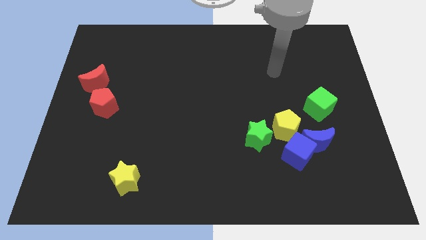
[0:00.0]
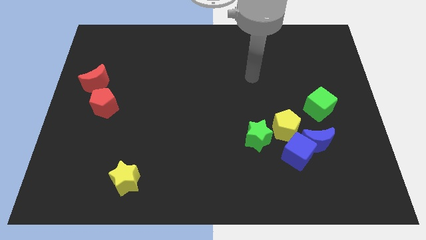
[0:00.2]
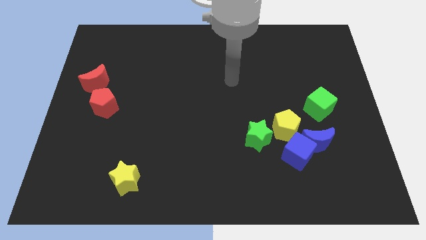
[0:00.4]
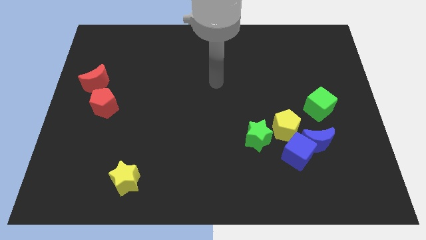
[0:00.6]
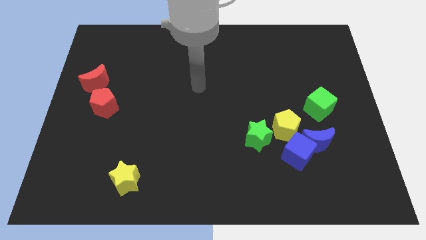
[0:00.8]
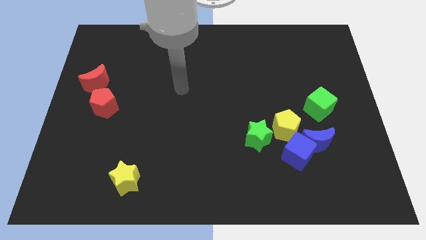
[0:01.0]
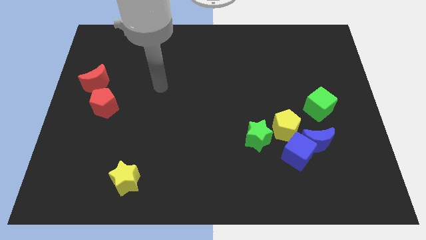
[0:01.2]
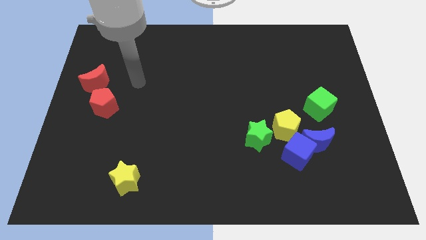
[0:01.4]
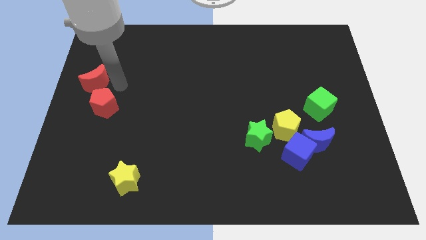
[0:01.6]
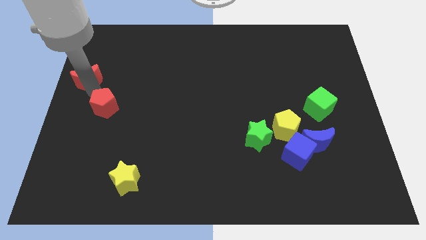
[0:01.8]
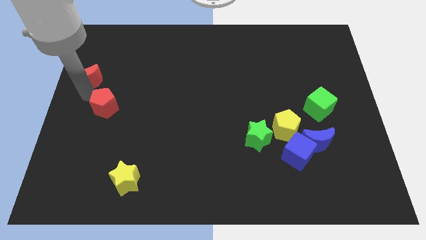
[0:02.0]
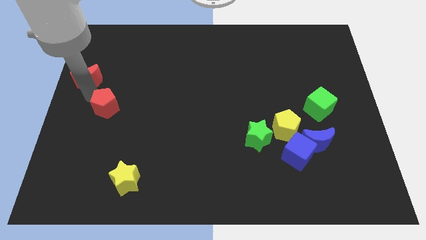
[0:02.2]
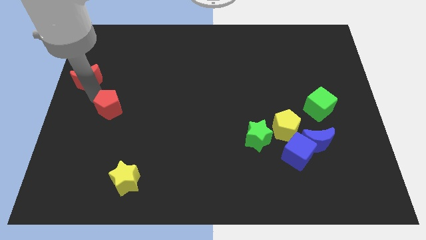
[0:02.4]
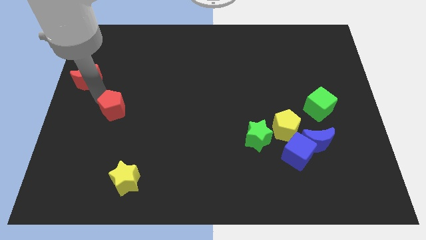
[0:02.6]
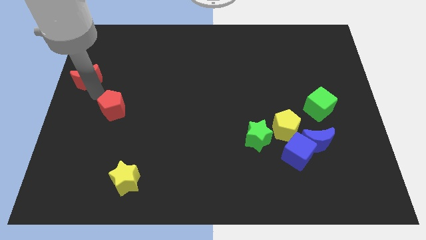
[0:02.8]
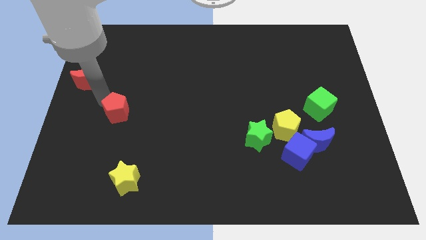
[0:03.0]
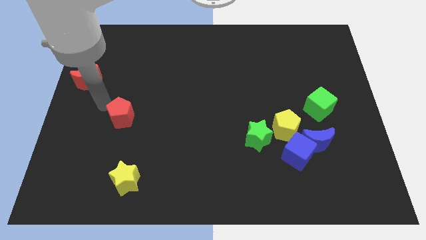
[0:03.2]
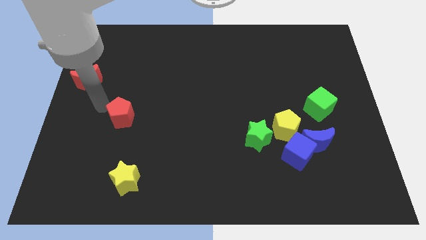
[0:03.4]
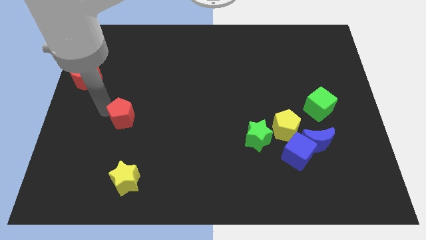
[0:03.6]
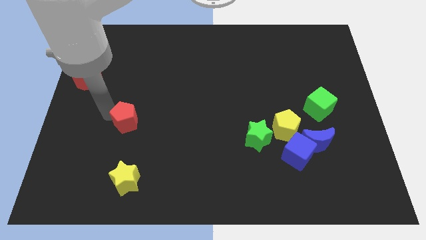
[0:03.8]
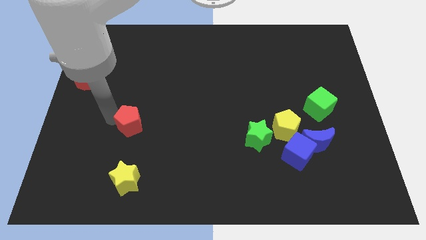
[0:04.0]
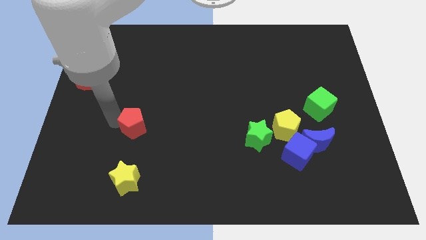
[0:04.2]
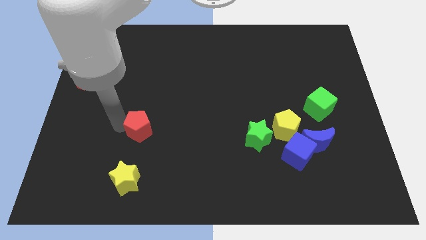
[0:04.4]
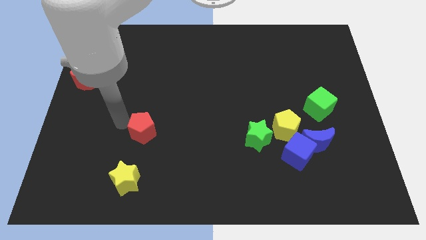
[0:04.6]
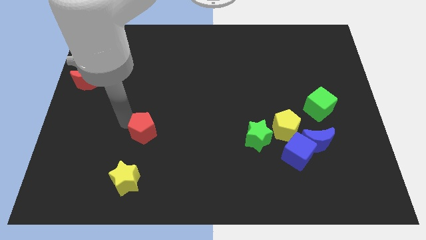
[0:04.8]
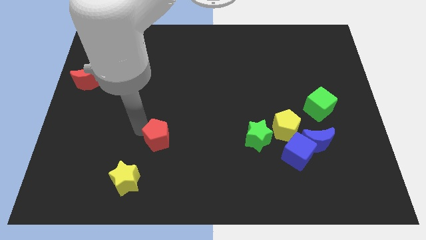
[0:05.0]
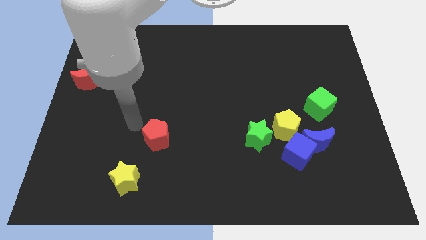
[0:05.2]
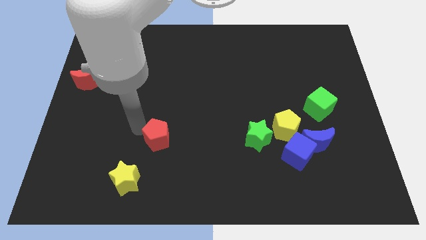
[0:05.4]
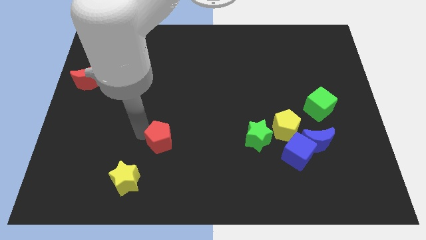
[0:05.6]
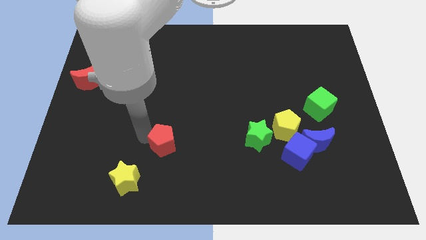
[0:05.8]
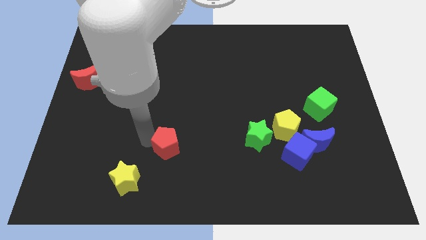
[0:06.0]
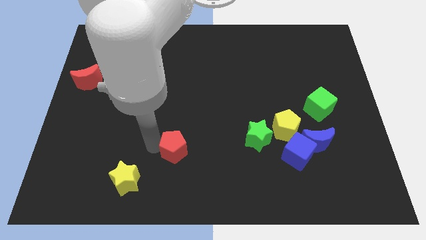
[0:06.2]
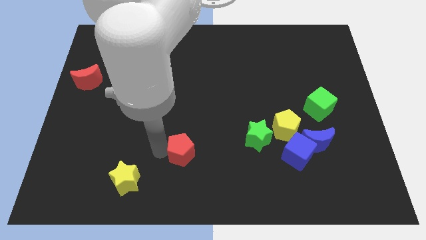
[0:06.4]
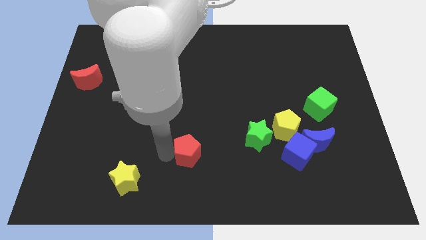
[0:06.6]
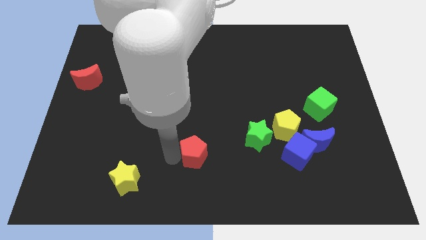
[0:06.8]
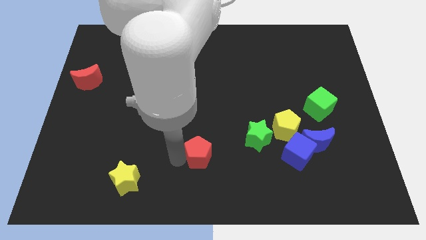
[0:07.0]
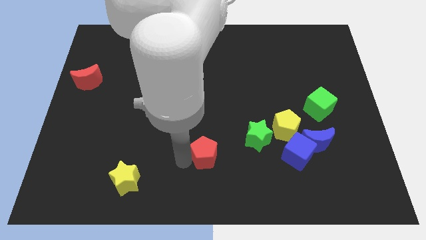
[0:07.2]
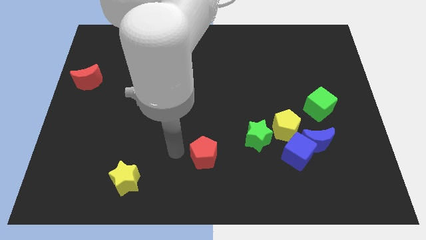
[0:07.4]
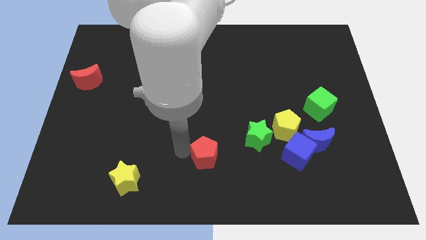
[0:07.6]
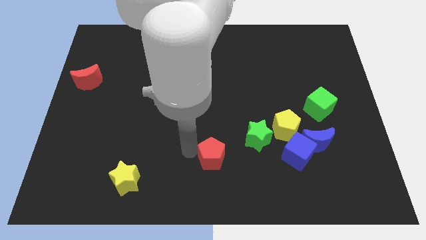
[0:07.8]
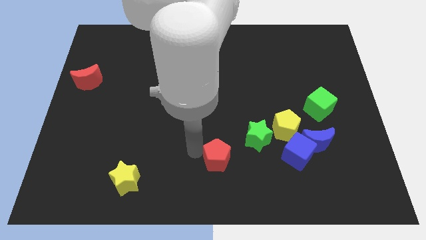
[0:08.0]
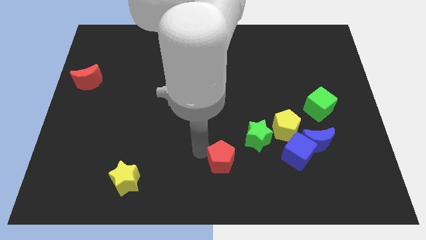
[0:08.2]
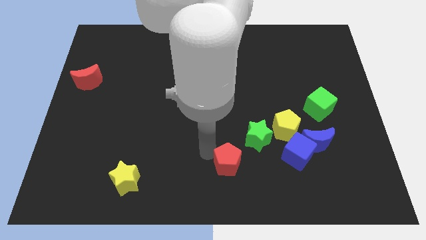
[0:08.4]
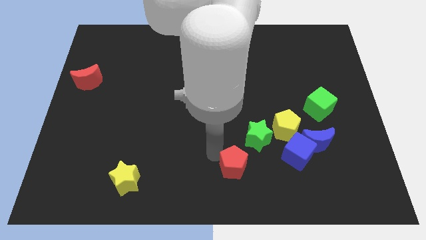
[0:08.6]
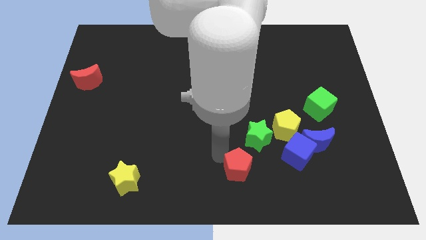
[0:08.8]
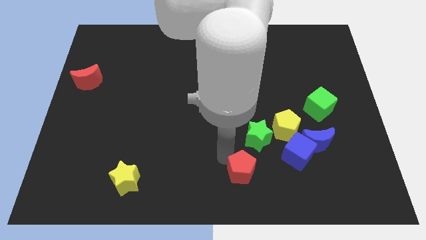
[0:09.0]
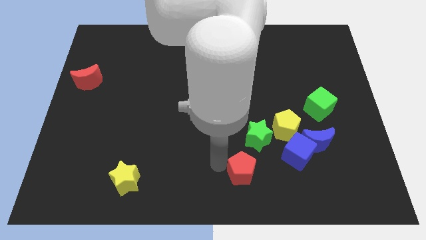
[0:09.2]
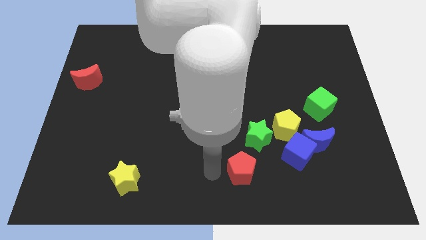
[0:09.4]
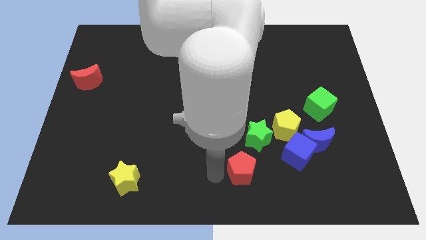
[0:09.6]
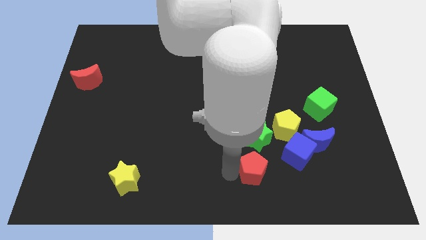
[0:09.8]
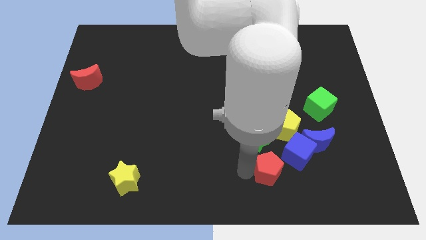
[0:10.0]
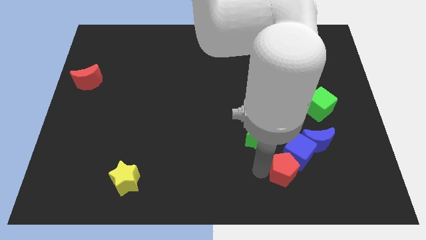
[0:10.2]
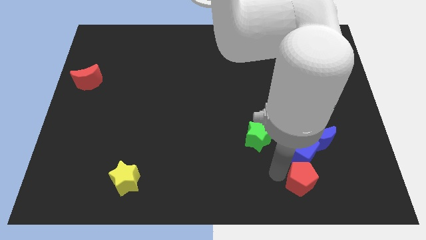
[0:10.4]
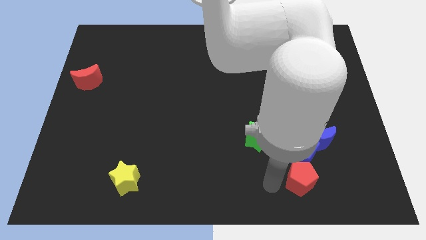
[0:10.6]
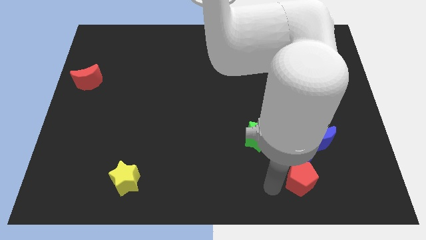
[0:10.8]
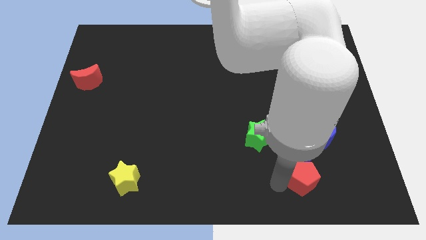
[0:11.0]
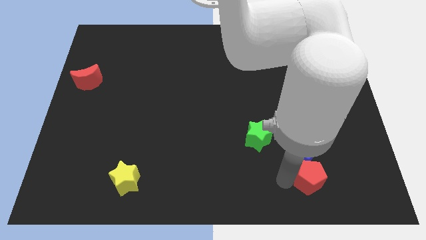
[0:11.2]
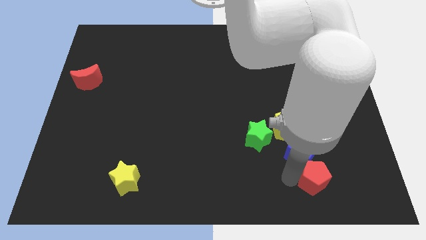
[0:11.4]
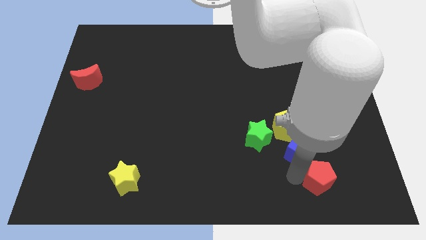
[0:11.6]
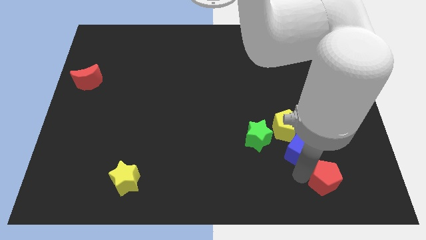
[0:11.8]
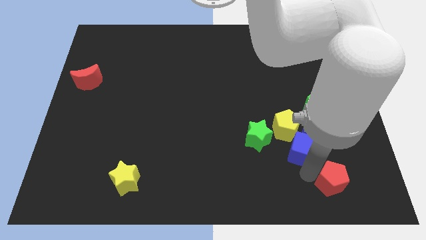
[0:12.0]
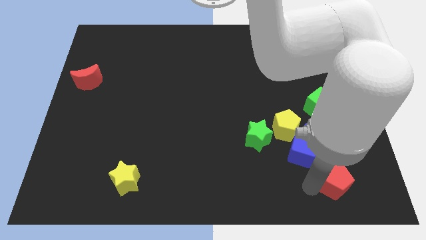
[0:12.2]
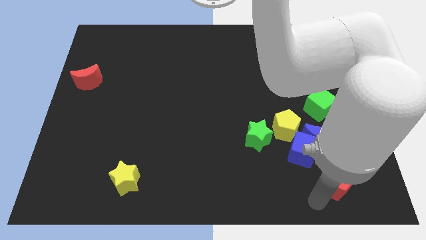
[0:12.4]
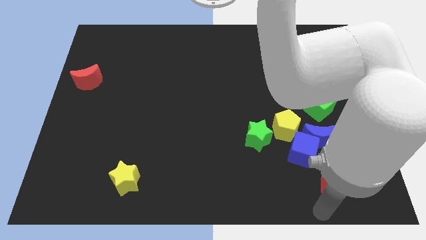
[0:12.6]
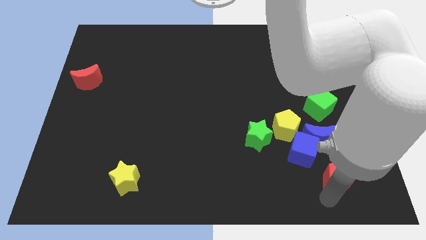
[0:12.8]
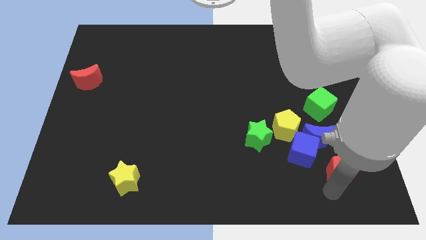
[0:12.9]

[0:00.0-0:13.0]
slide the red pentagon to the bottom right of the blue moon
